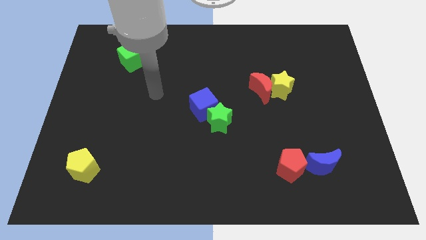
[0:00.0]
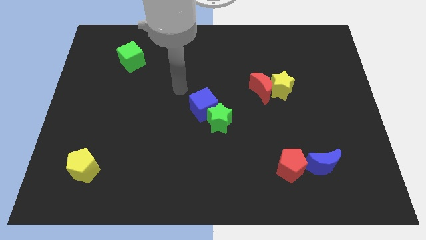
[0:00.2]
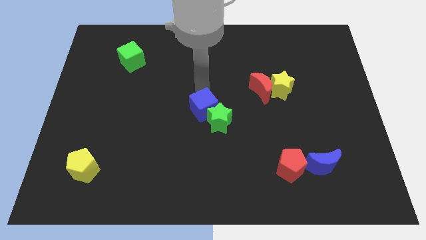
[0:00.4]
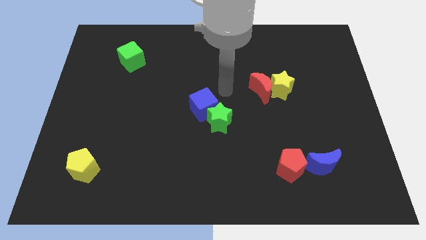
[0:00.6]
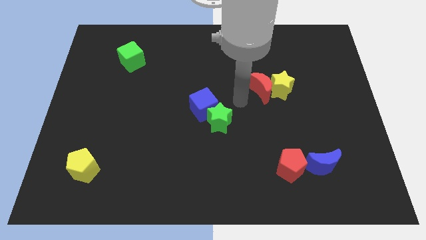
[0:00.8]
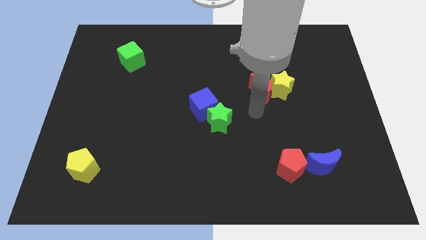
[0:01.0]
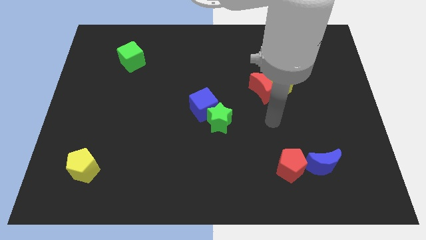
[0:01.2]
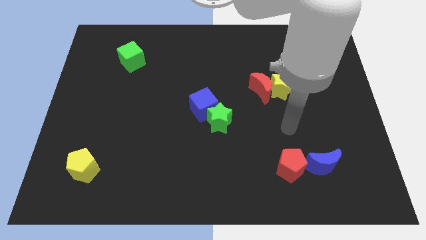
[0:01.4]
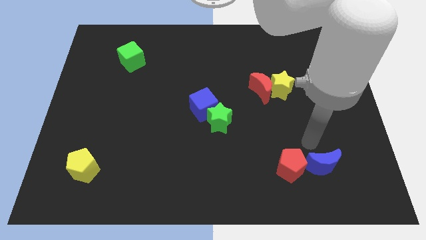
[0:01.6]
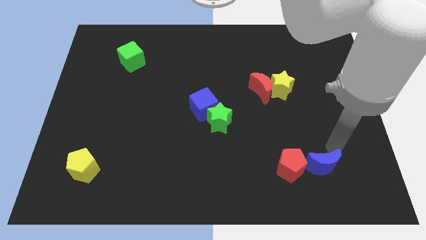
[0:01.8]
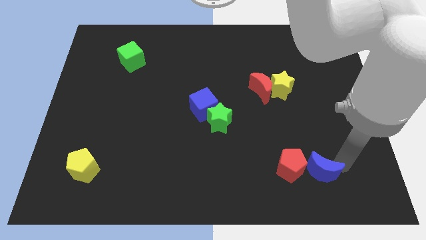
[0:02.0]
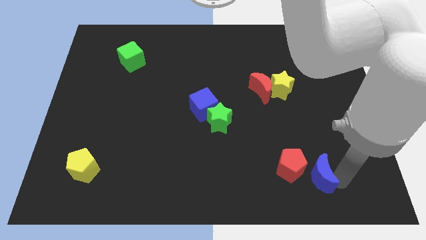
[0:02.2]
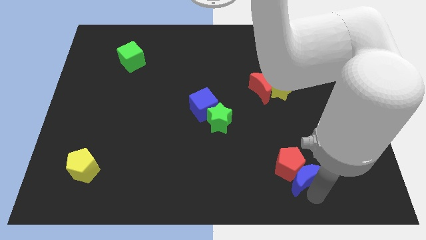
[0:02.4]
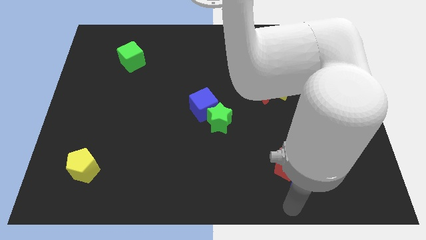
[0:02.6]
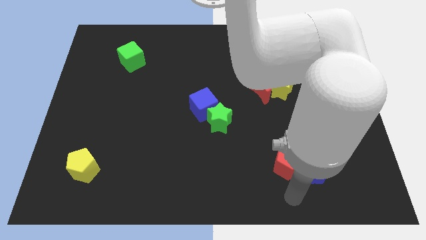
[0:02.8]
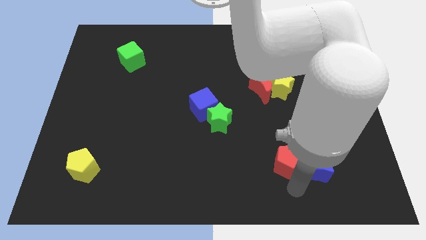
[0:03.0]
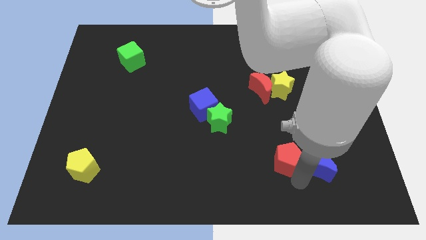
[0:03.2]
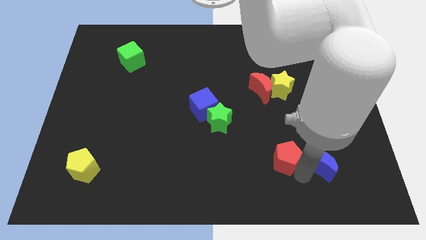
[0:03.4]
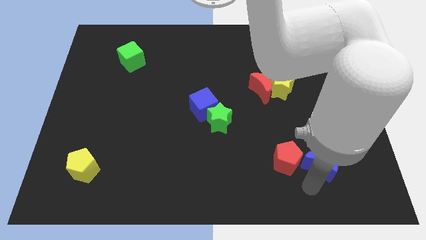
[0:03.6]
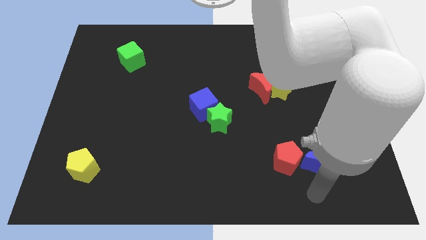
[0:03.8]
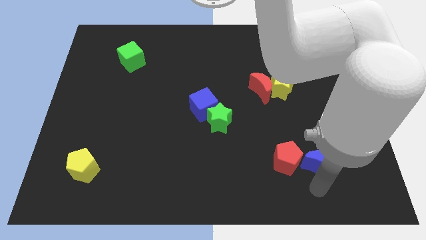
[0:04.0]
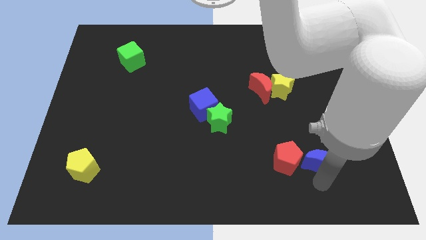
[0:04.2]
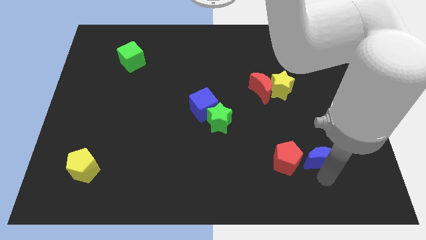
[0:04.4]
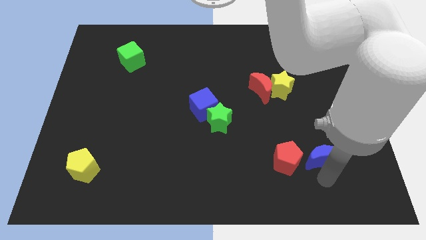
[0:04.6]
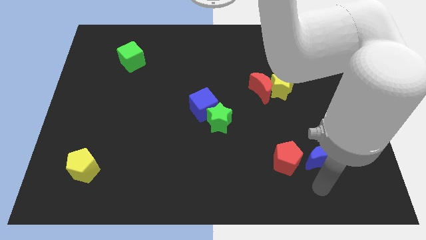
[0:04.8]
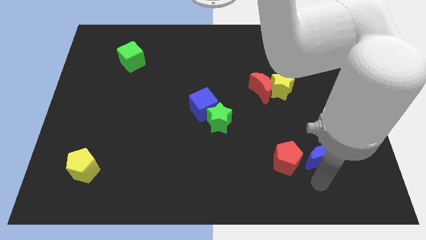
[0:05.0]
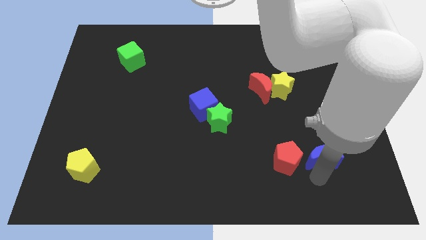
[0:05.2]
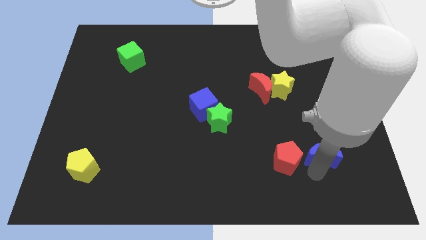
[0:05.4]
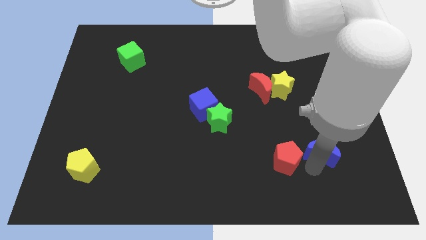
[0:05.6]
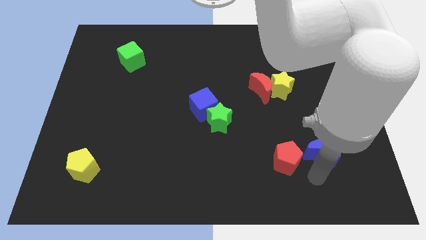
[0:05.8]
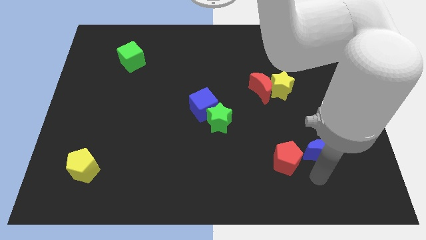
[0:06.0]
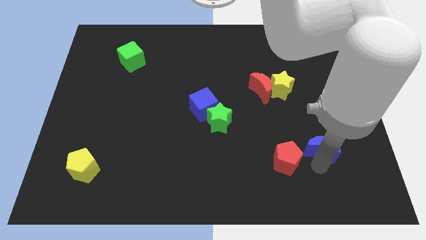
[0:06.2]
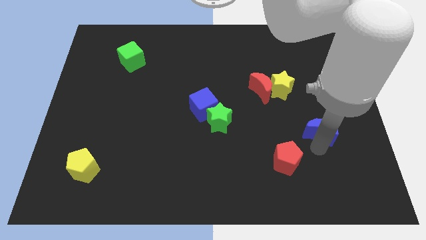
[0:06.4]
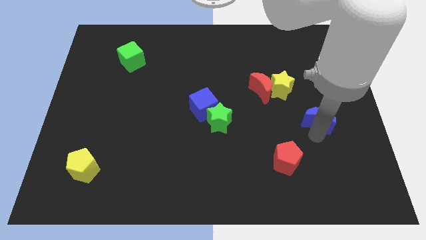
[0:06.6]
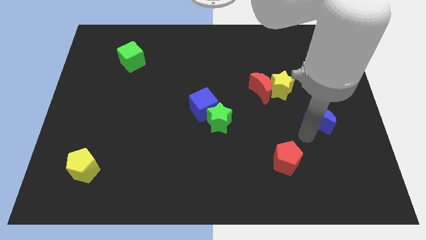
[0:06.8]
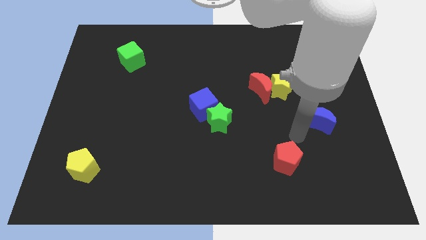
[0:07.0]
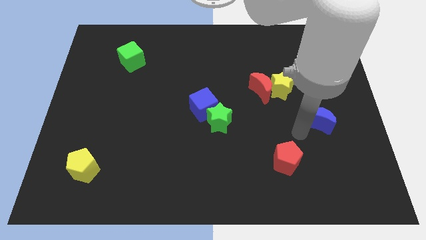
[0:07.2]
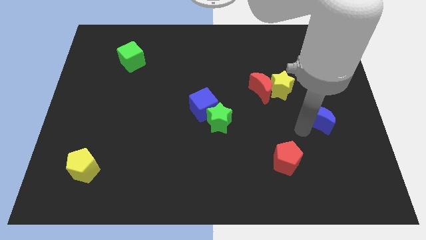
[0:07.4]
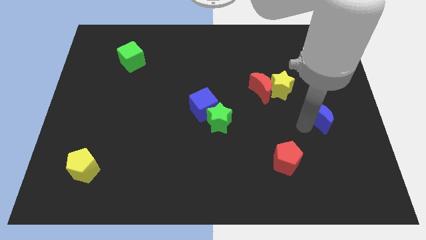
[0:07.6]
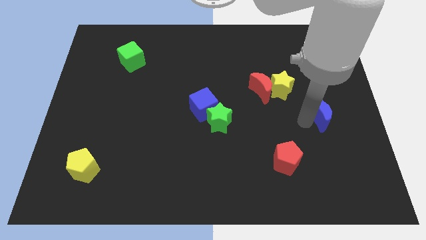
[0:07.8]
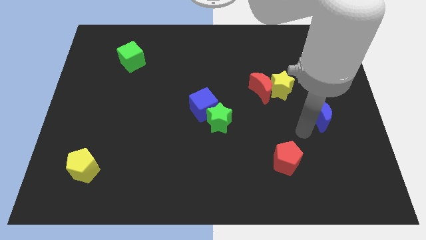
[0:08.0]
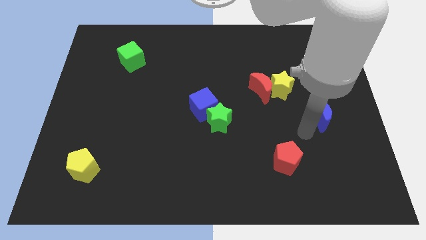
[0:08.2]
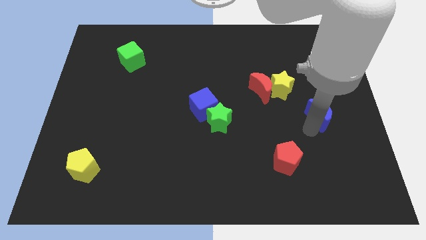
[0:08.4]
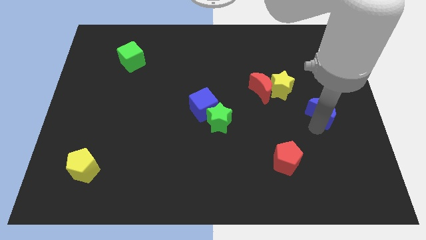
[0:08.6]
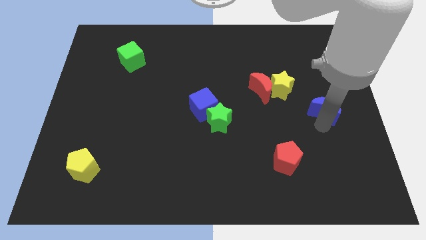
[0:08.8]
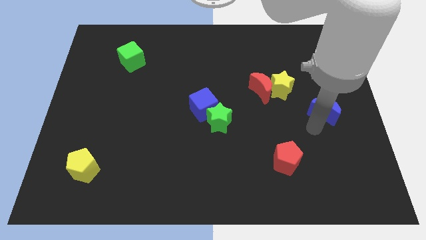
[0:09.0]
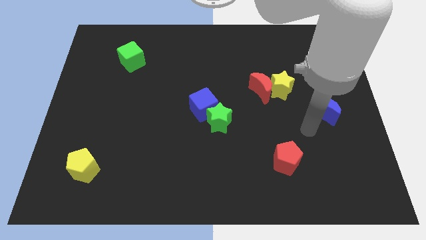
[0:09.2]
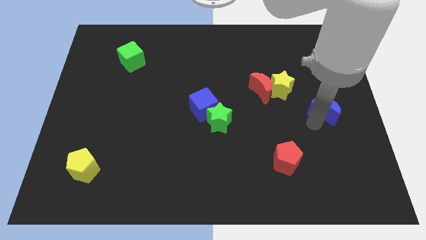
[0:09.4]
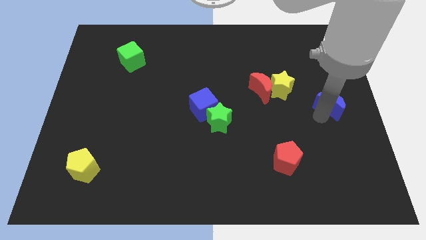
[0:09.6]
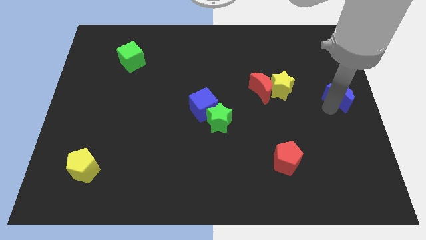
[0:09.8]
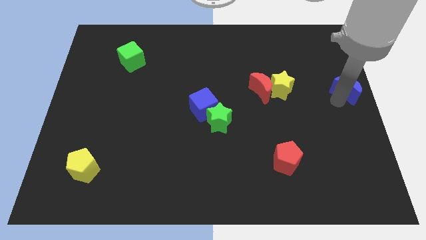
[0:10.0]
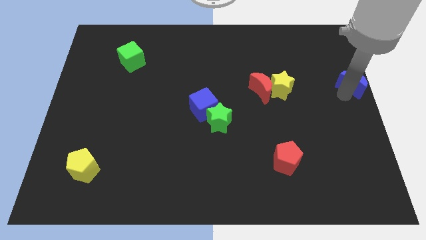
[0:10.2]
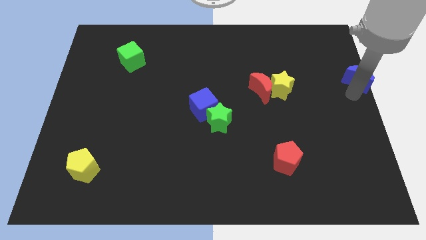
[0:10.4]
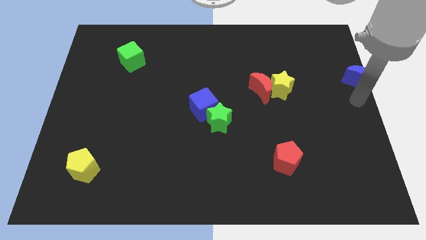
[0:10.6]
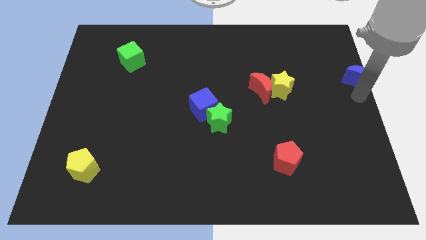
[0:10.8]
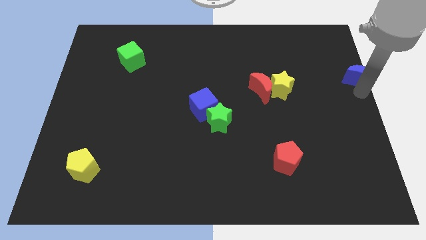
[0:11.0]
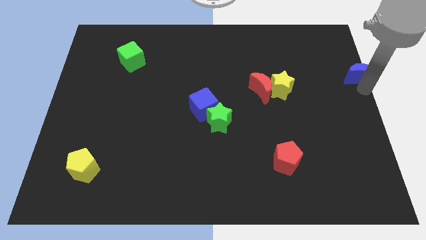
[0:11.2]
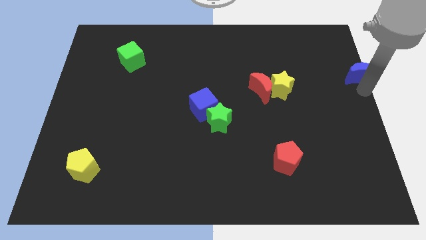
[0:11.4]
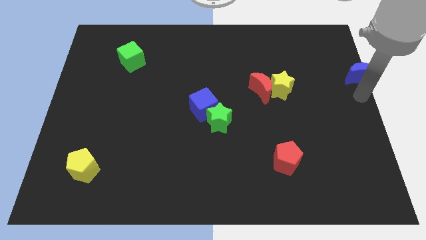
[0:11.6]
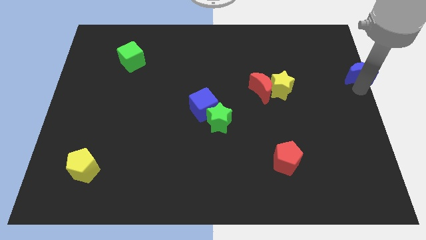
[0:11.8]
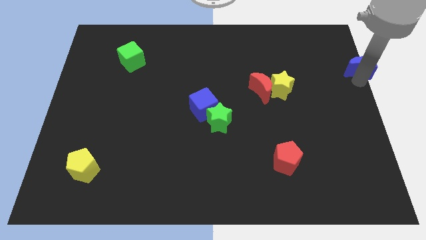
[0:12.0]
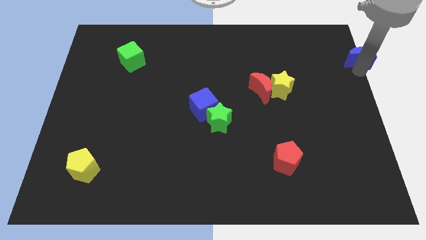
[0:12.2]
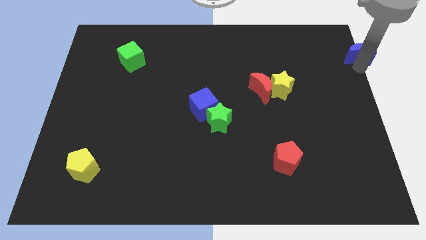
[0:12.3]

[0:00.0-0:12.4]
slide the blue moon to the top right
